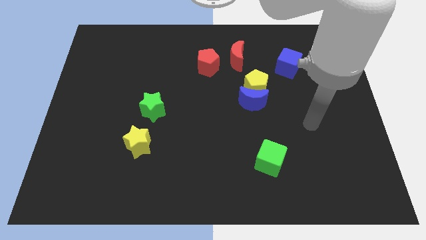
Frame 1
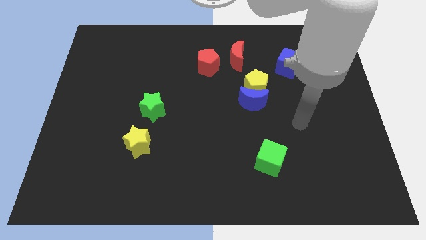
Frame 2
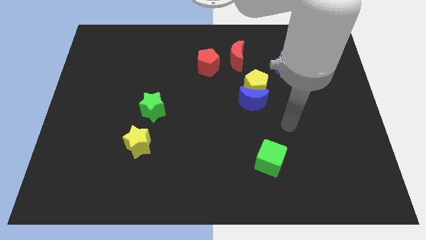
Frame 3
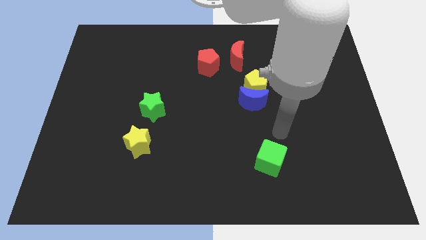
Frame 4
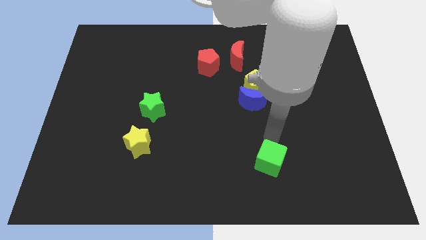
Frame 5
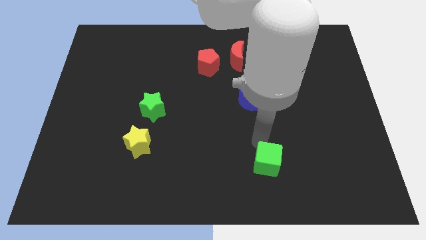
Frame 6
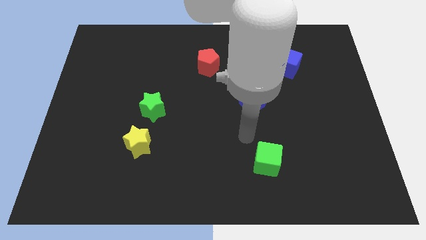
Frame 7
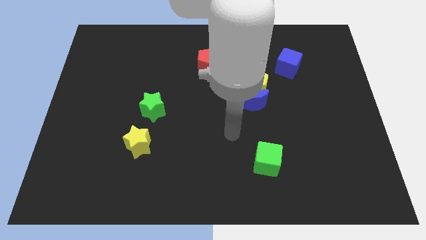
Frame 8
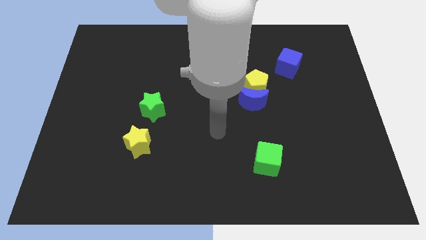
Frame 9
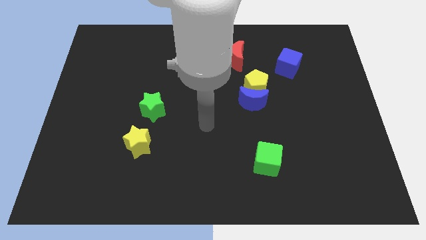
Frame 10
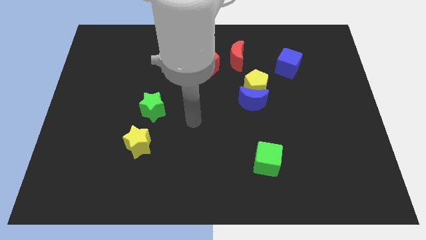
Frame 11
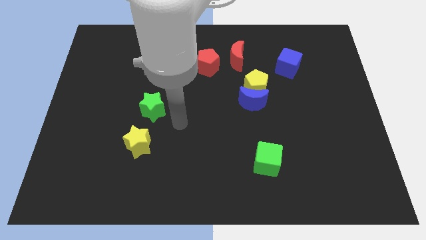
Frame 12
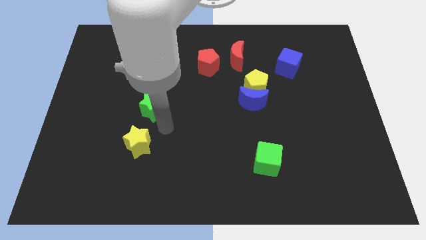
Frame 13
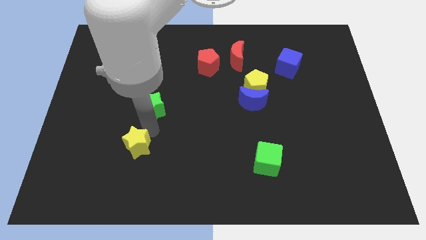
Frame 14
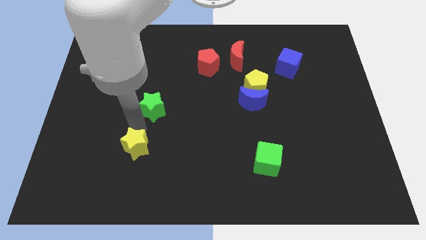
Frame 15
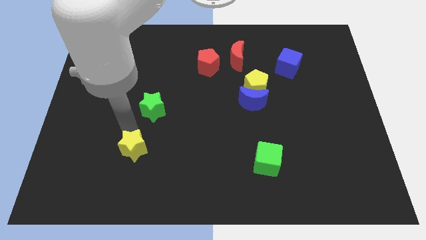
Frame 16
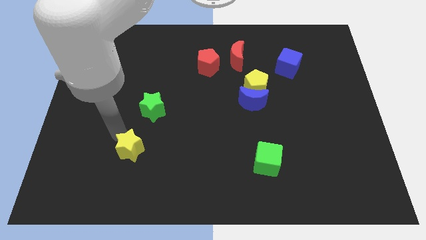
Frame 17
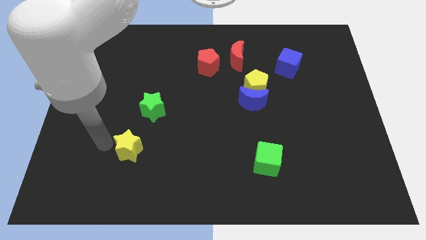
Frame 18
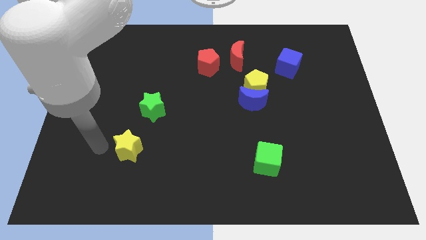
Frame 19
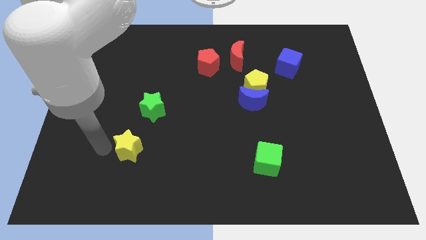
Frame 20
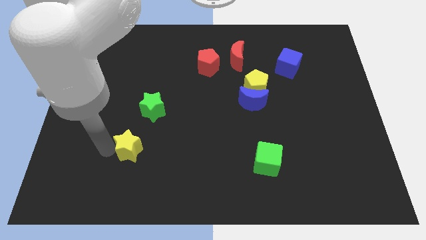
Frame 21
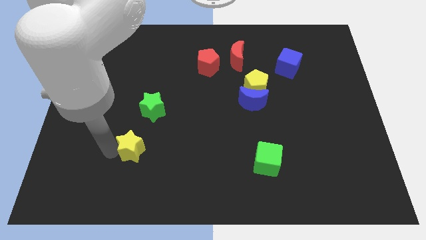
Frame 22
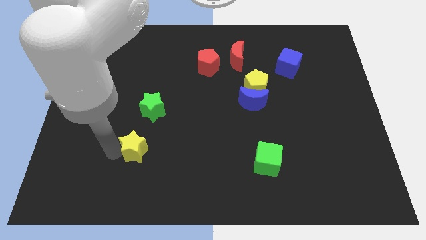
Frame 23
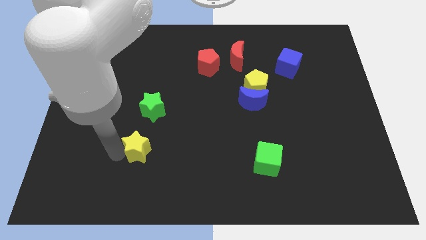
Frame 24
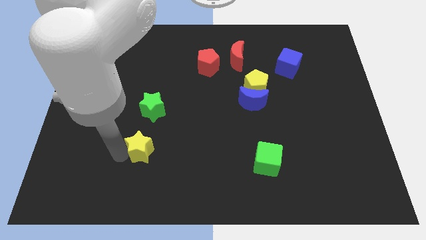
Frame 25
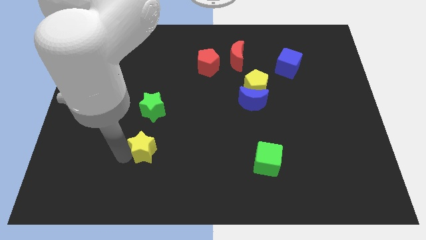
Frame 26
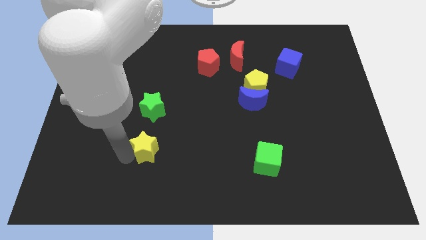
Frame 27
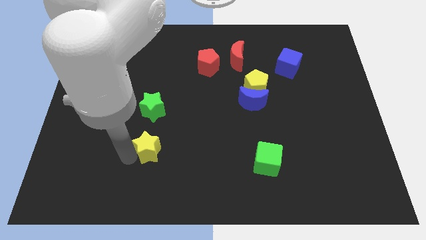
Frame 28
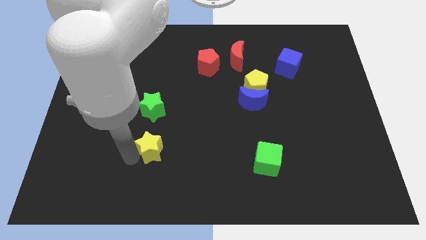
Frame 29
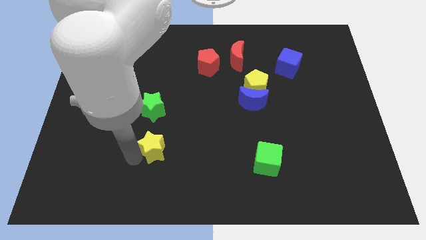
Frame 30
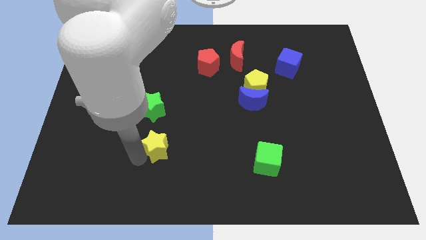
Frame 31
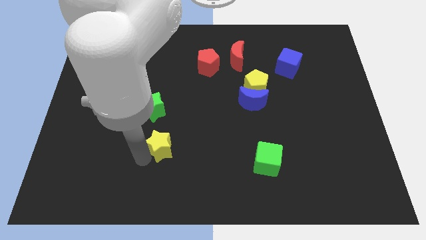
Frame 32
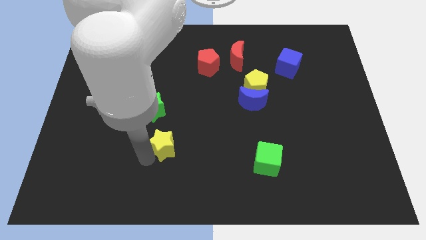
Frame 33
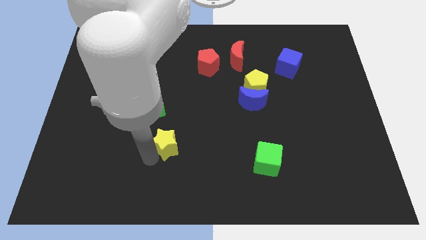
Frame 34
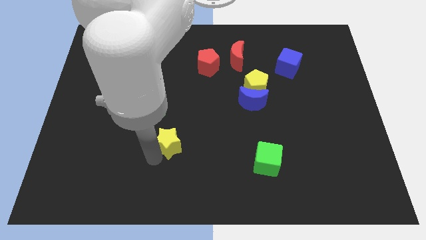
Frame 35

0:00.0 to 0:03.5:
slide the yellow star slightly to the right

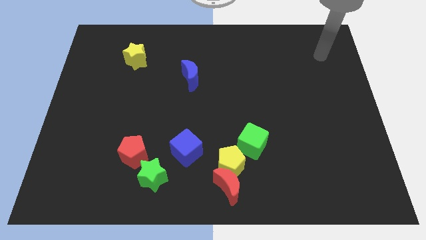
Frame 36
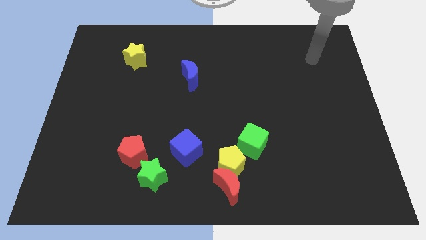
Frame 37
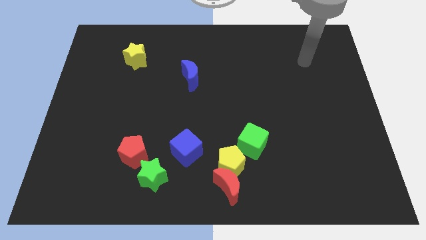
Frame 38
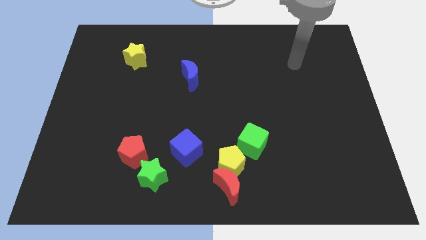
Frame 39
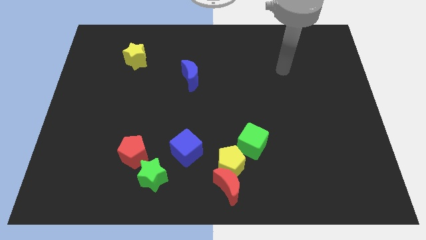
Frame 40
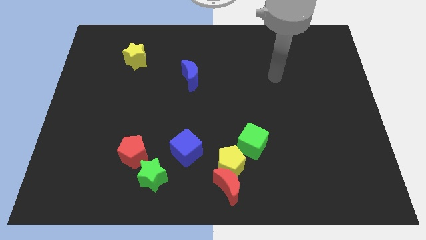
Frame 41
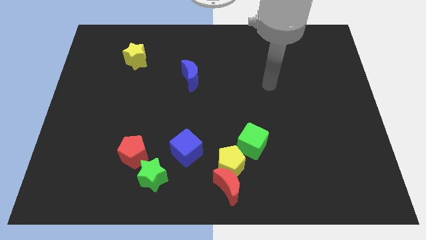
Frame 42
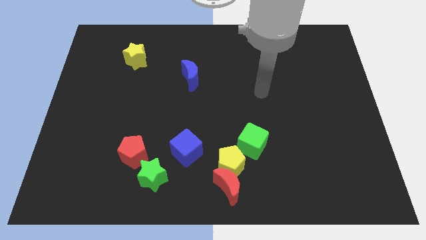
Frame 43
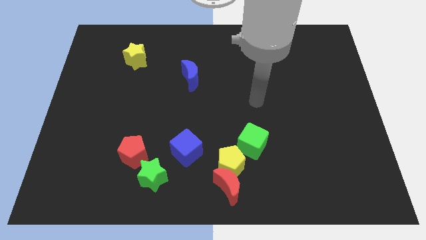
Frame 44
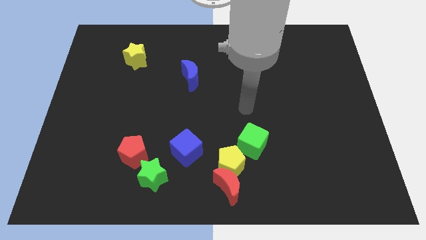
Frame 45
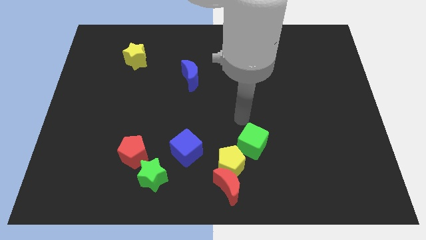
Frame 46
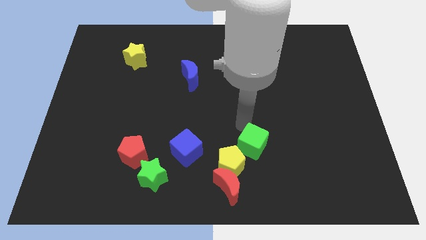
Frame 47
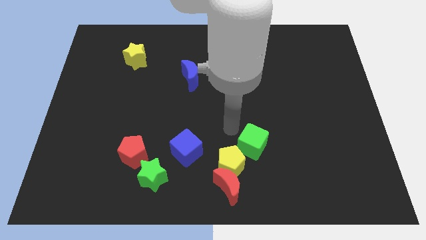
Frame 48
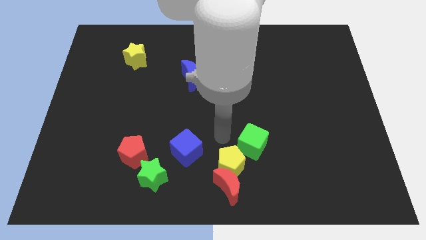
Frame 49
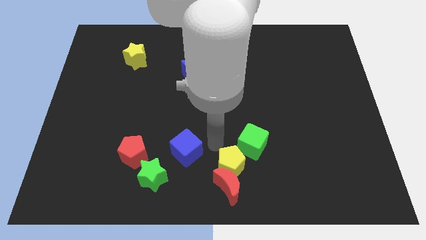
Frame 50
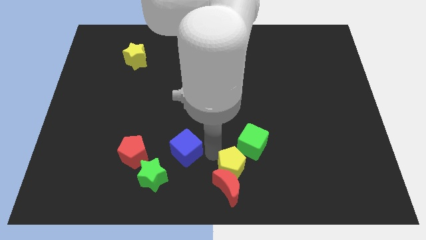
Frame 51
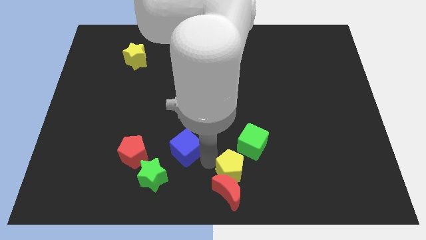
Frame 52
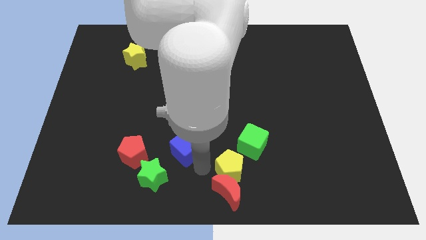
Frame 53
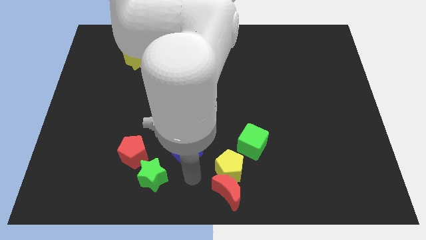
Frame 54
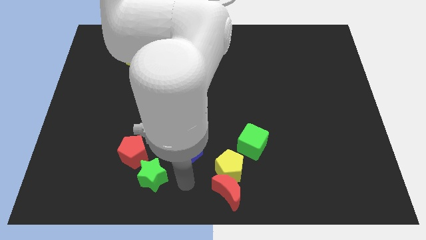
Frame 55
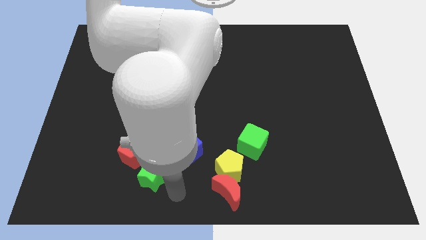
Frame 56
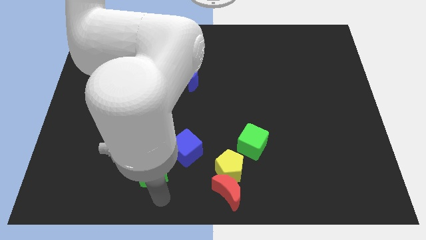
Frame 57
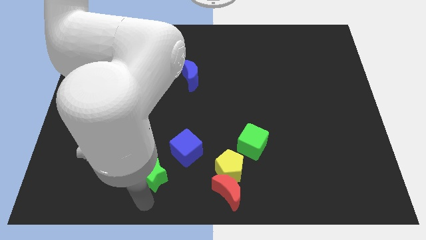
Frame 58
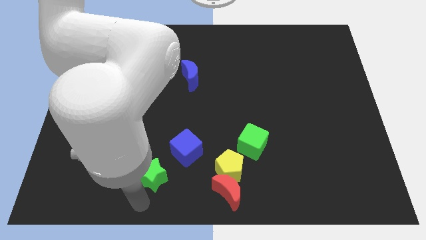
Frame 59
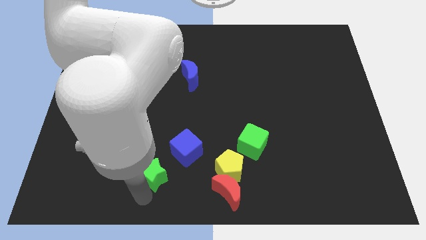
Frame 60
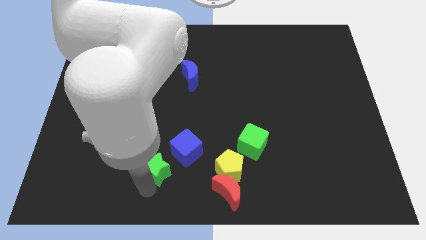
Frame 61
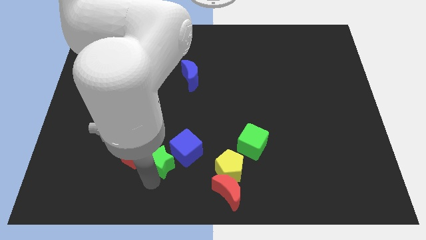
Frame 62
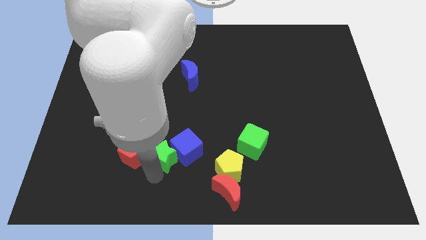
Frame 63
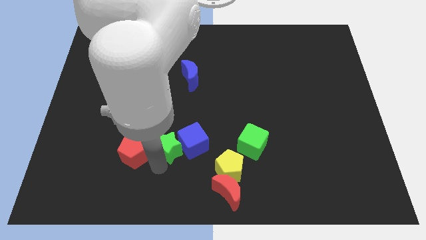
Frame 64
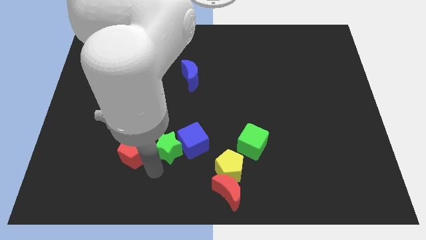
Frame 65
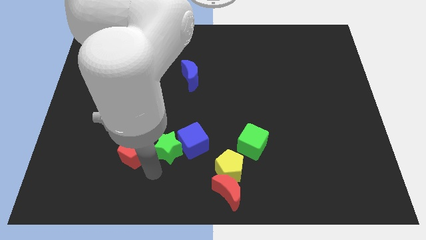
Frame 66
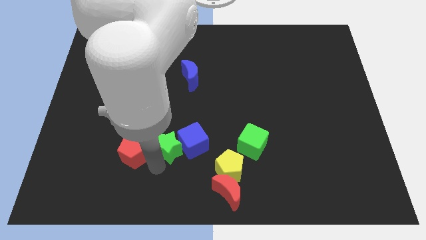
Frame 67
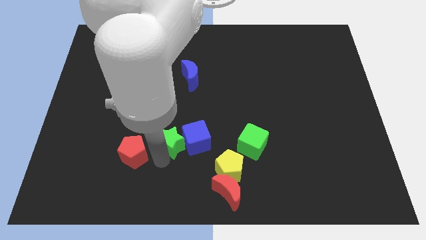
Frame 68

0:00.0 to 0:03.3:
slide the green star a little diagonally upwards and to the right

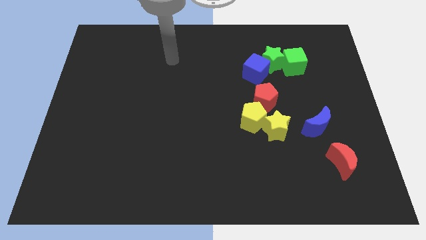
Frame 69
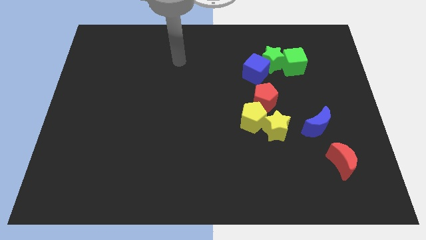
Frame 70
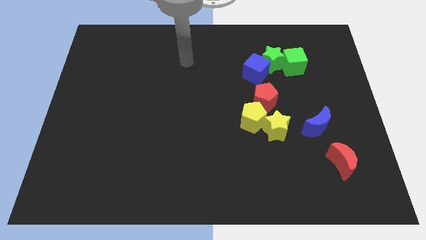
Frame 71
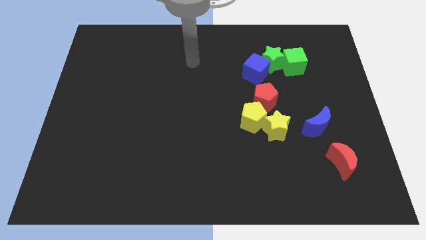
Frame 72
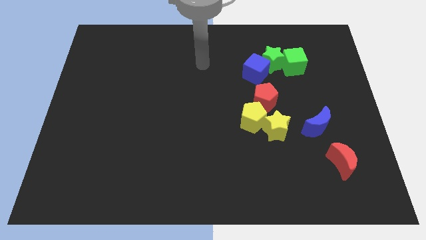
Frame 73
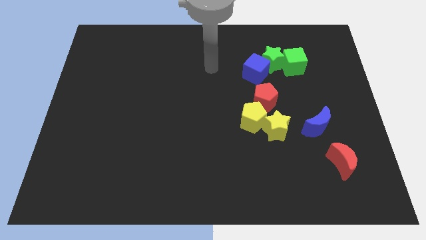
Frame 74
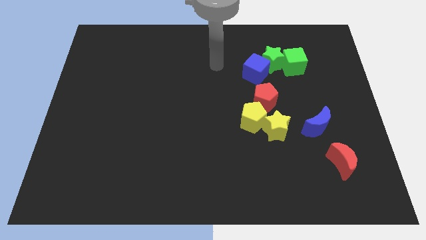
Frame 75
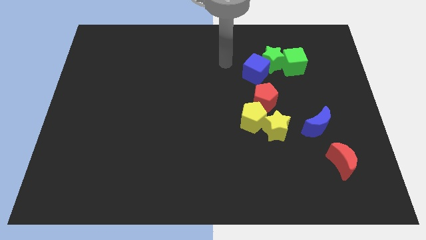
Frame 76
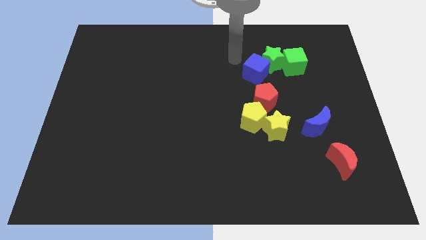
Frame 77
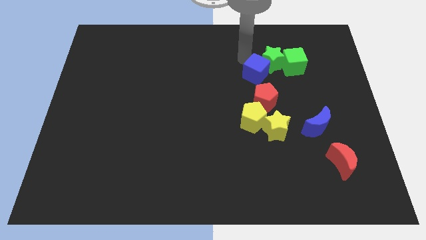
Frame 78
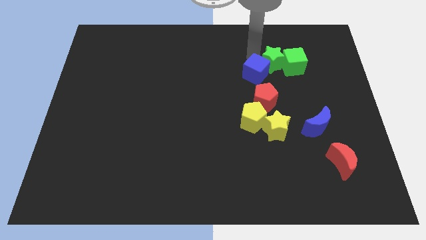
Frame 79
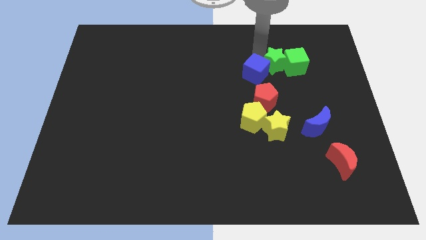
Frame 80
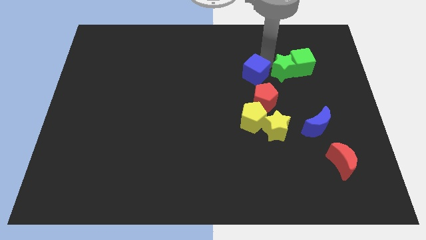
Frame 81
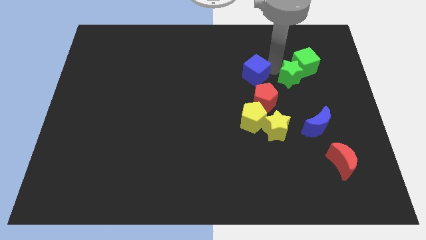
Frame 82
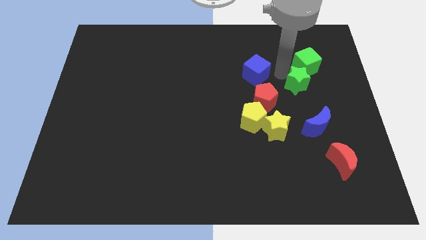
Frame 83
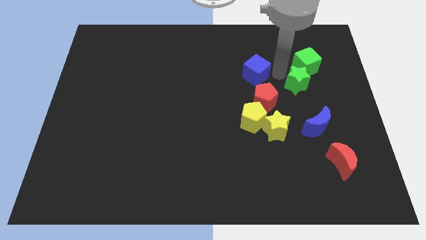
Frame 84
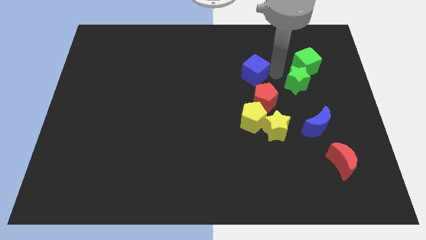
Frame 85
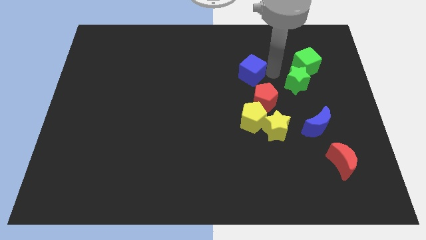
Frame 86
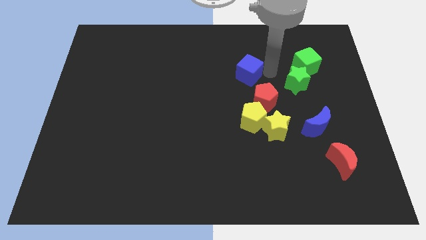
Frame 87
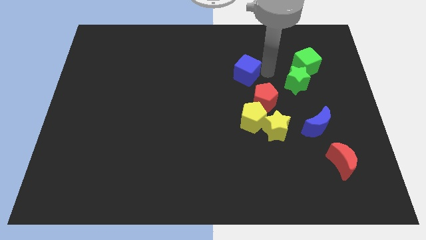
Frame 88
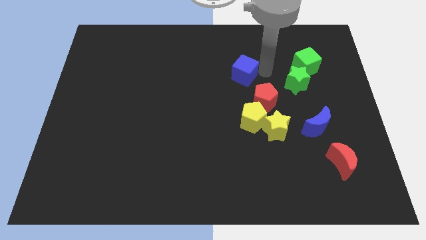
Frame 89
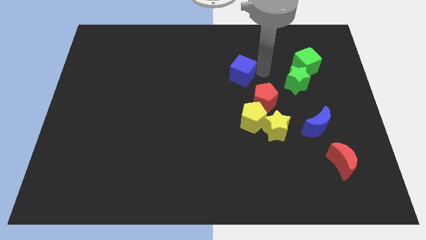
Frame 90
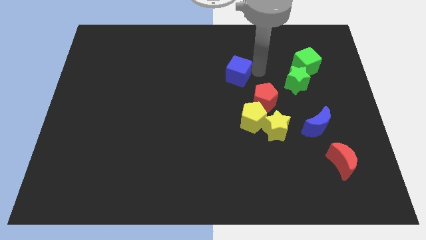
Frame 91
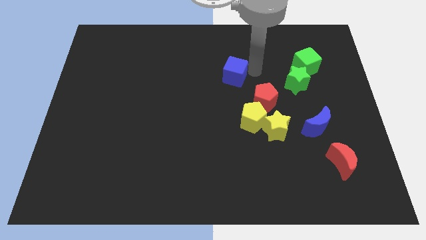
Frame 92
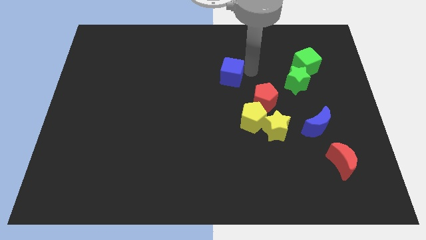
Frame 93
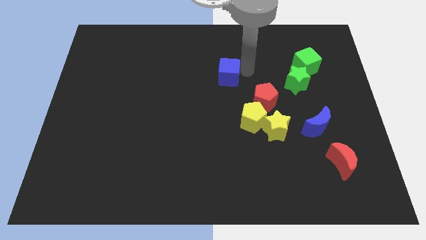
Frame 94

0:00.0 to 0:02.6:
slightly slide the blue cube to the left
